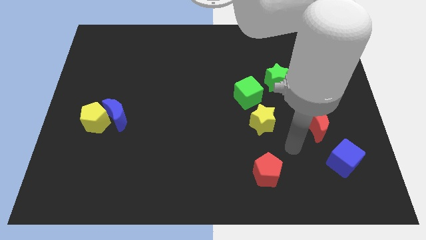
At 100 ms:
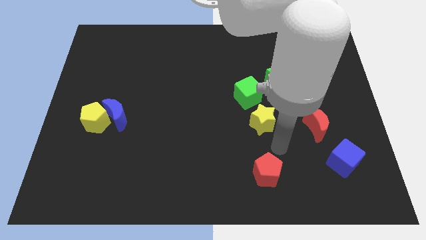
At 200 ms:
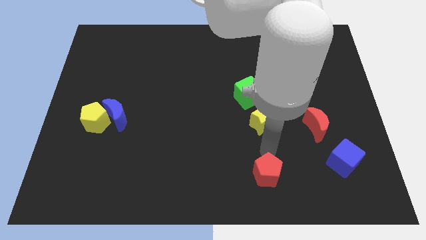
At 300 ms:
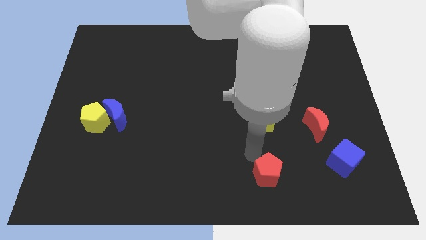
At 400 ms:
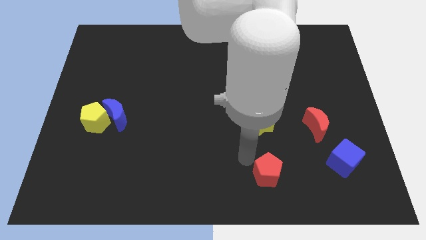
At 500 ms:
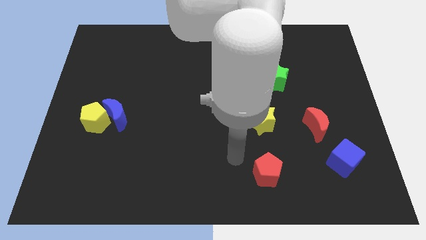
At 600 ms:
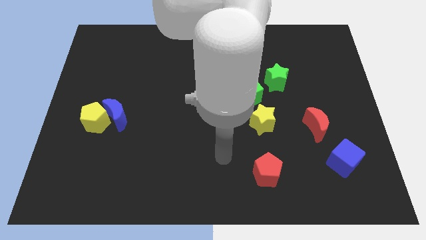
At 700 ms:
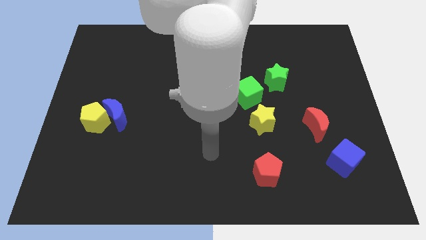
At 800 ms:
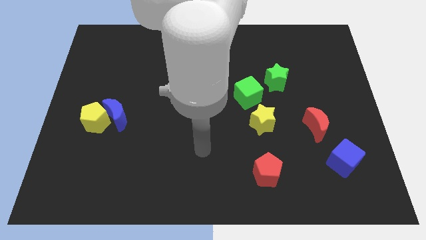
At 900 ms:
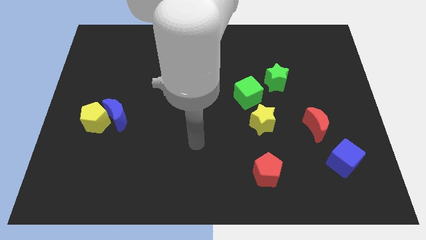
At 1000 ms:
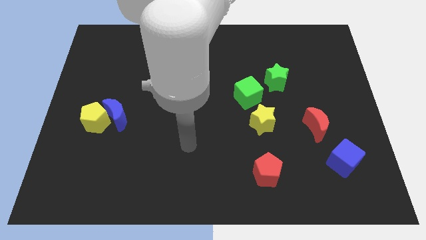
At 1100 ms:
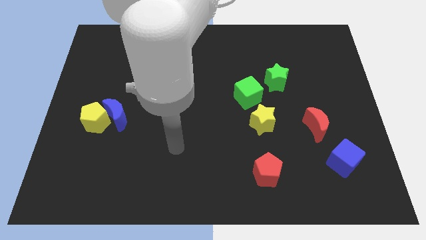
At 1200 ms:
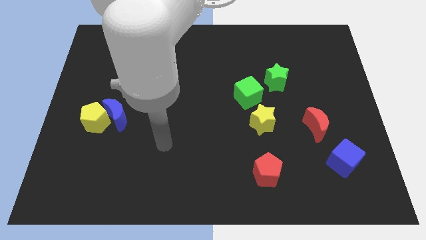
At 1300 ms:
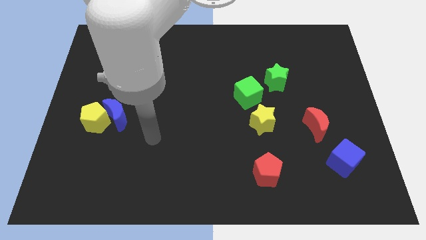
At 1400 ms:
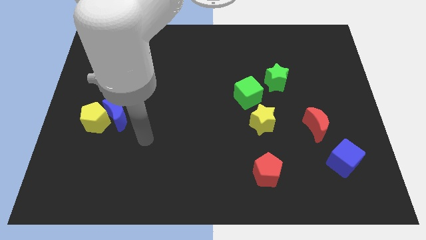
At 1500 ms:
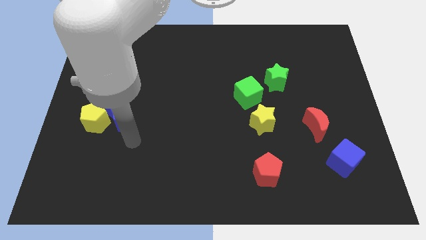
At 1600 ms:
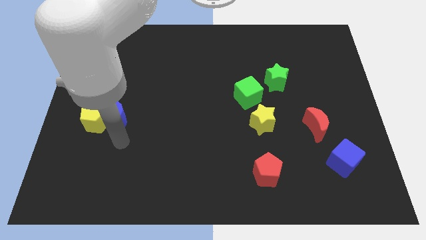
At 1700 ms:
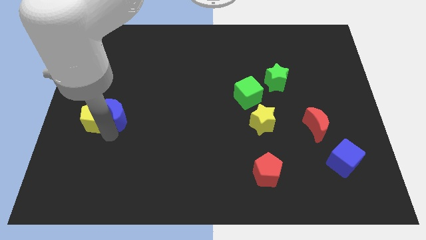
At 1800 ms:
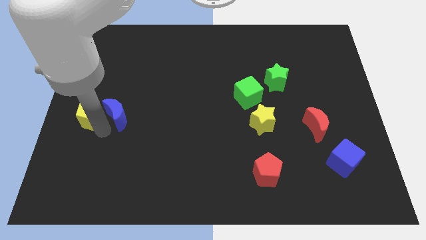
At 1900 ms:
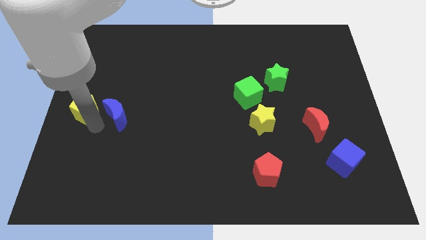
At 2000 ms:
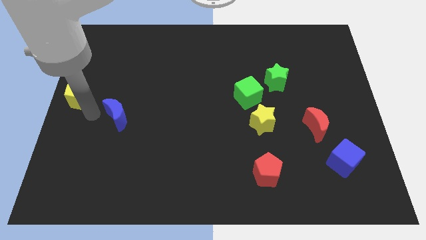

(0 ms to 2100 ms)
separate the blue moon from the yellow pentagon

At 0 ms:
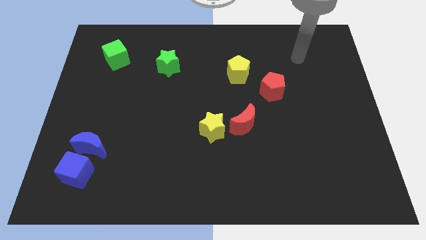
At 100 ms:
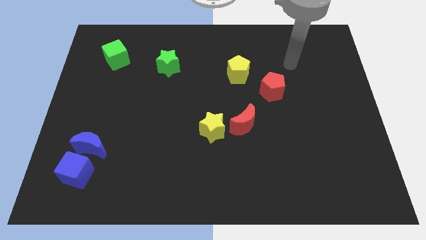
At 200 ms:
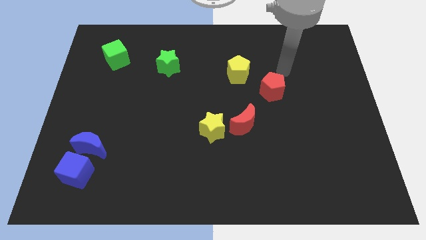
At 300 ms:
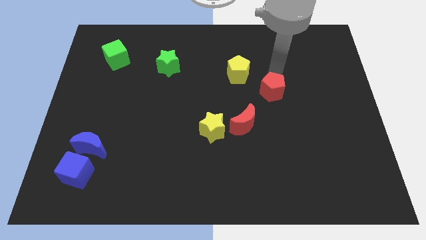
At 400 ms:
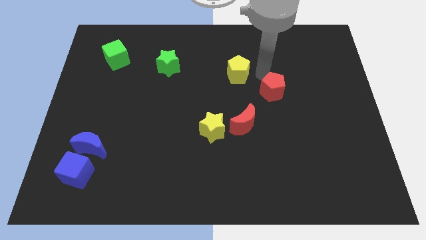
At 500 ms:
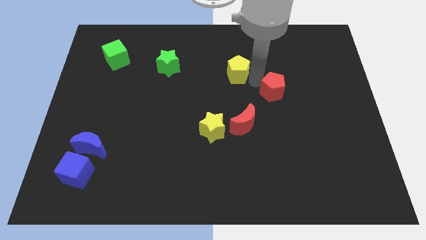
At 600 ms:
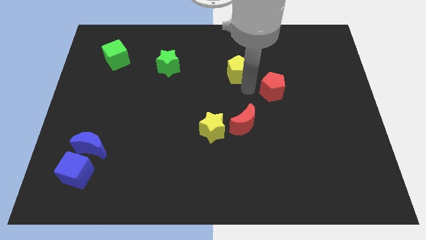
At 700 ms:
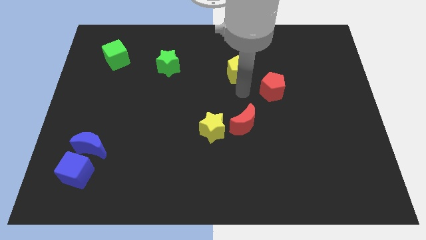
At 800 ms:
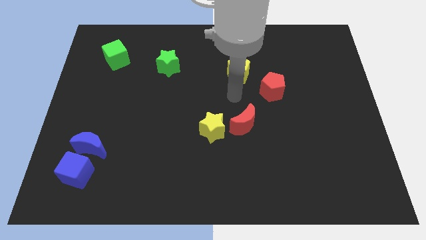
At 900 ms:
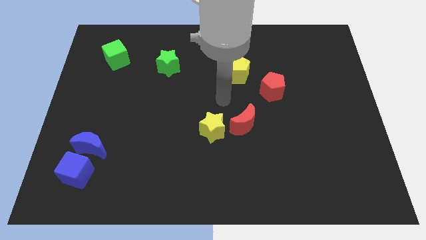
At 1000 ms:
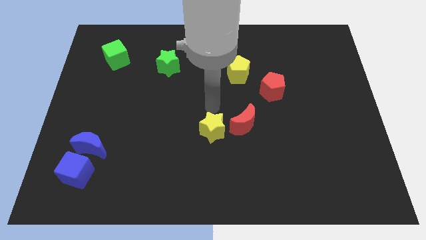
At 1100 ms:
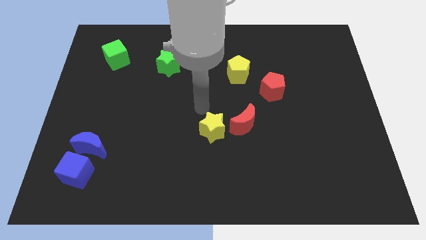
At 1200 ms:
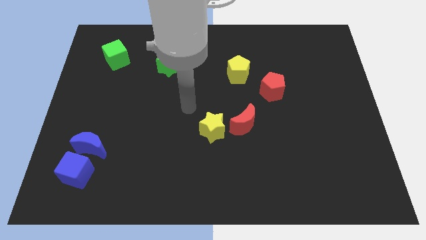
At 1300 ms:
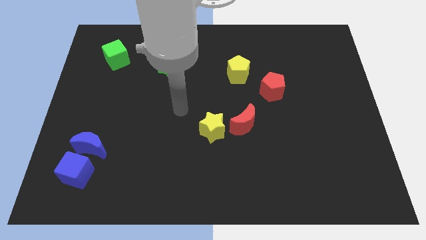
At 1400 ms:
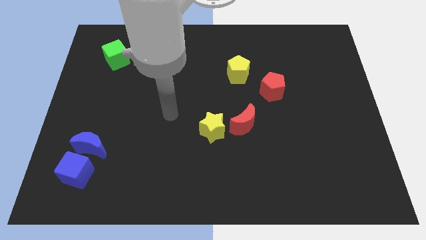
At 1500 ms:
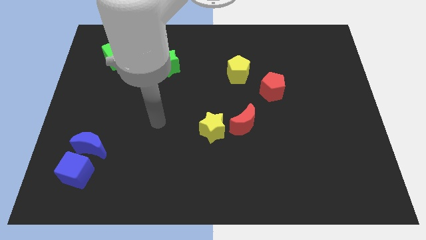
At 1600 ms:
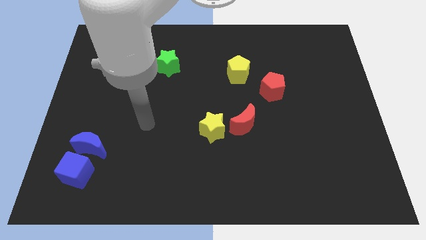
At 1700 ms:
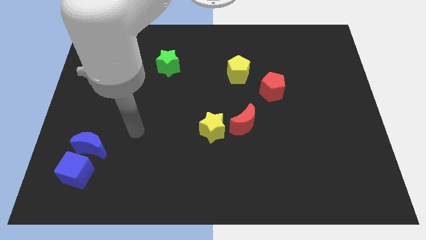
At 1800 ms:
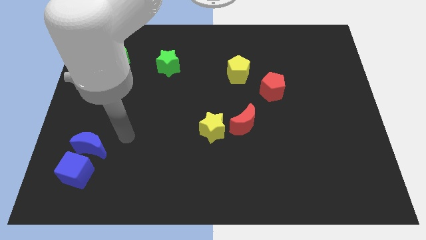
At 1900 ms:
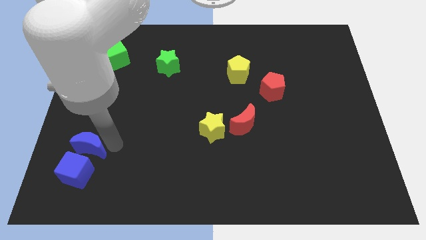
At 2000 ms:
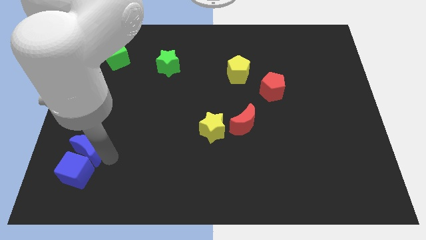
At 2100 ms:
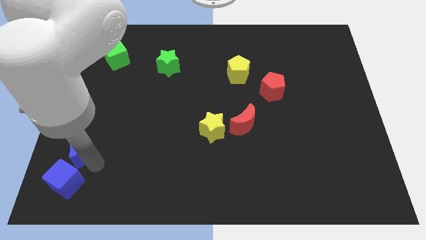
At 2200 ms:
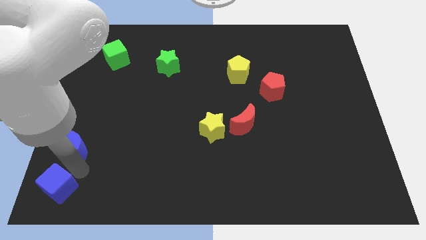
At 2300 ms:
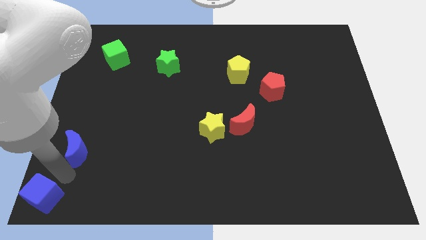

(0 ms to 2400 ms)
separate the blue moon from the blue cube

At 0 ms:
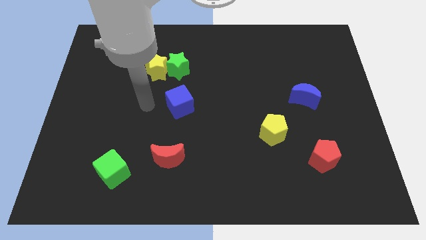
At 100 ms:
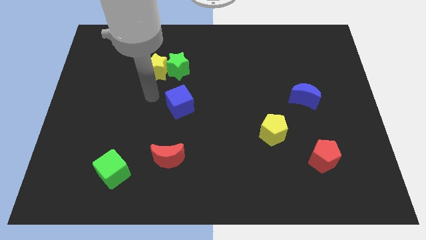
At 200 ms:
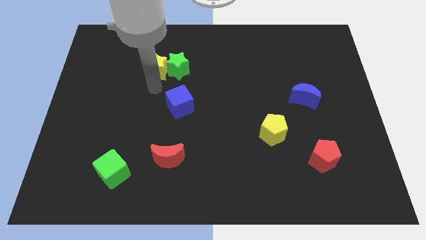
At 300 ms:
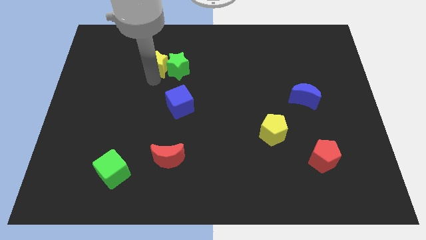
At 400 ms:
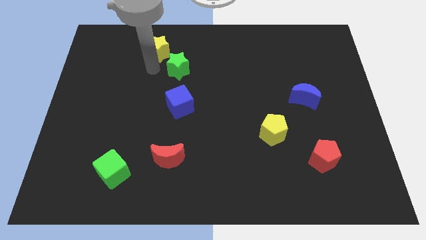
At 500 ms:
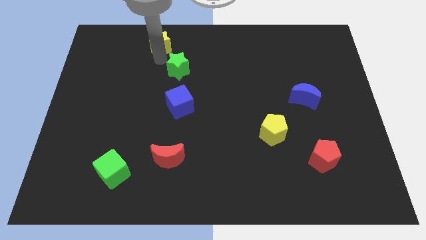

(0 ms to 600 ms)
move the green star away from the yellow star

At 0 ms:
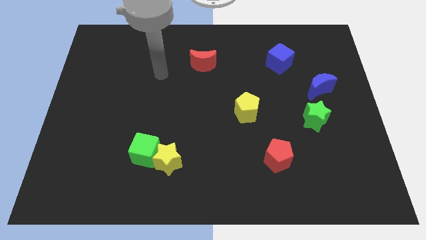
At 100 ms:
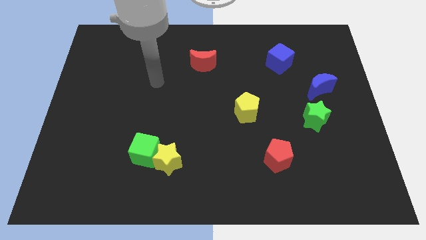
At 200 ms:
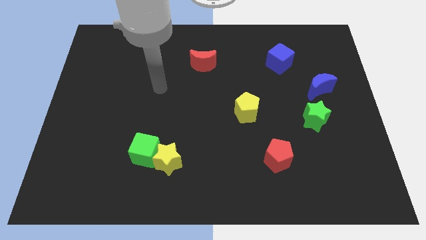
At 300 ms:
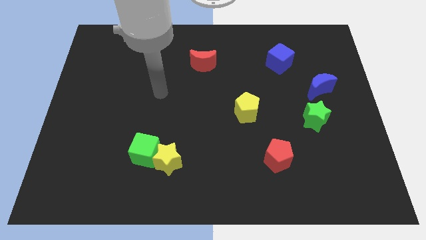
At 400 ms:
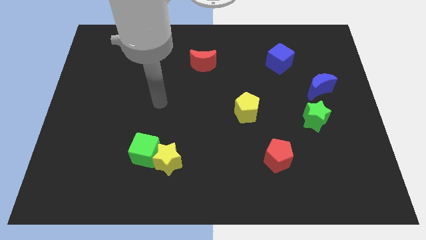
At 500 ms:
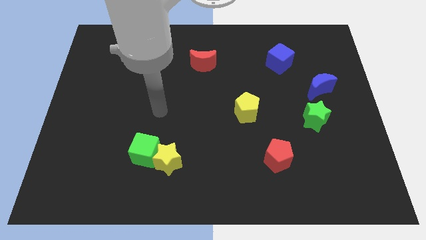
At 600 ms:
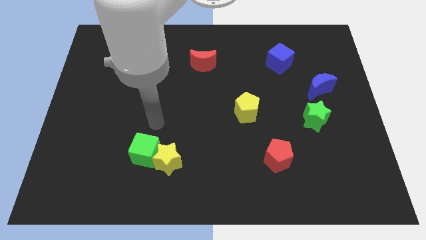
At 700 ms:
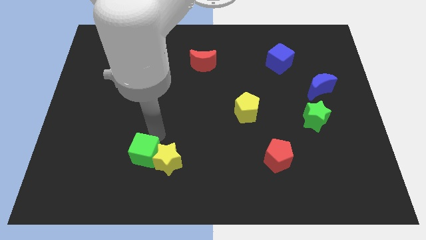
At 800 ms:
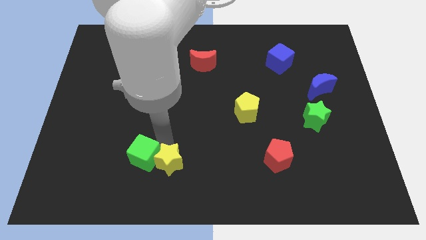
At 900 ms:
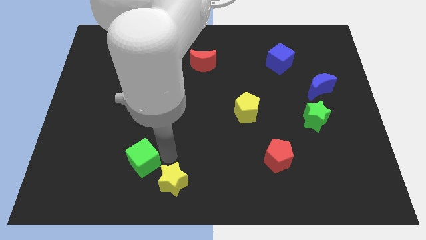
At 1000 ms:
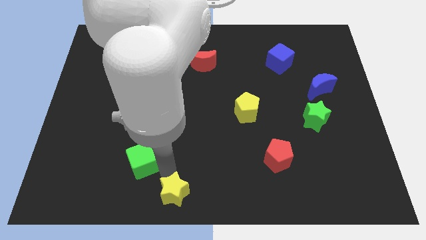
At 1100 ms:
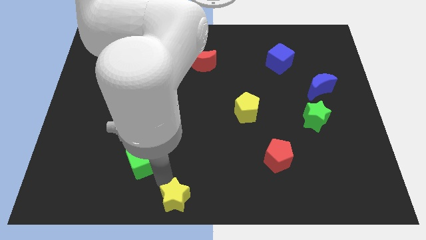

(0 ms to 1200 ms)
separate the green cube from the yellow star

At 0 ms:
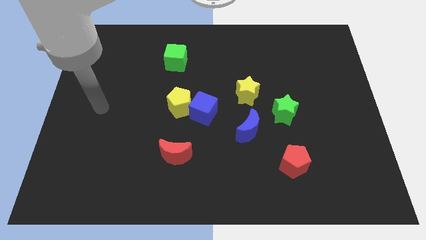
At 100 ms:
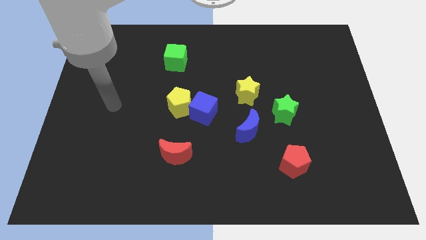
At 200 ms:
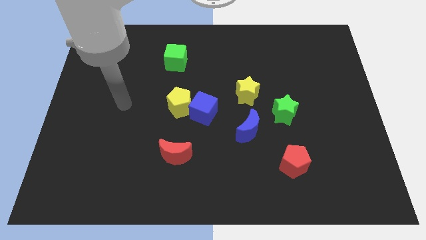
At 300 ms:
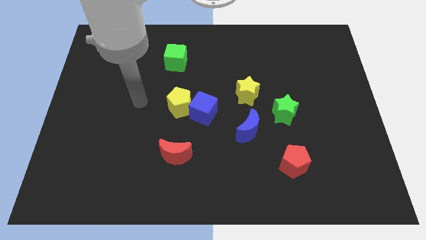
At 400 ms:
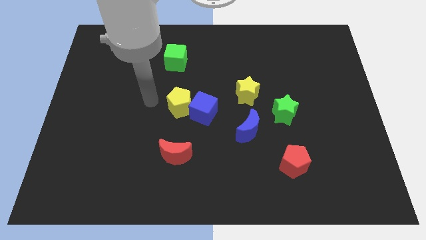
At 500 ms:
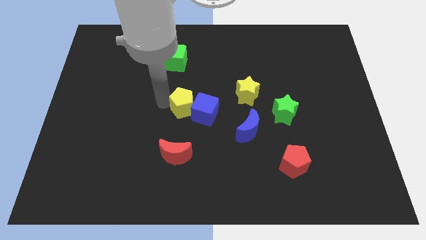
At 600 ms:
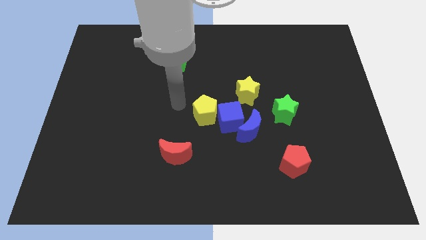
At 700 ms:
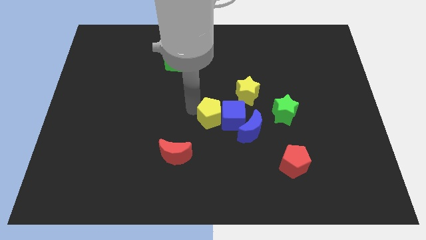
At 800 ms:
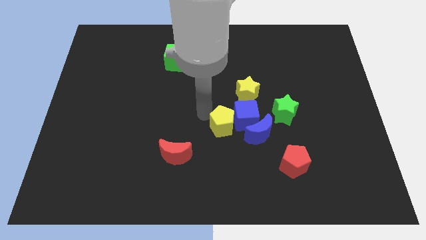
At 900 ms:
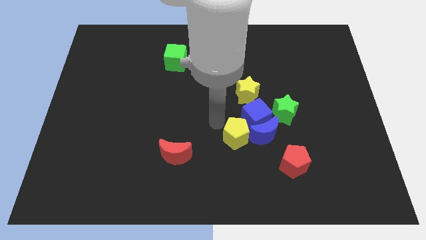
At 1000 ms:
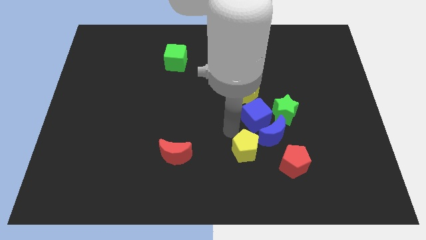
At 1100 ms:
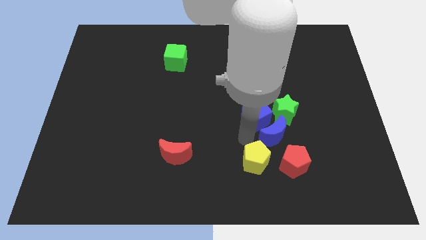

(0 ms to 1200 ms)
pull the blue cube apart from the yellow pentagon

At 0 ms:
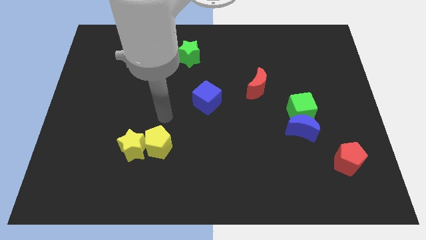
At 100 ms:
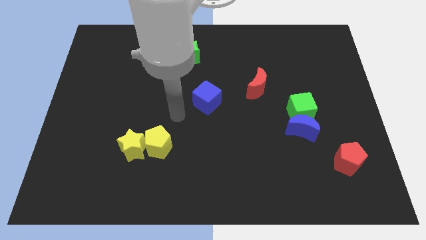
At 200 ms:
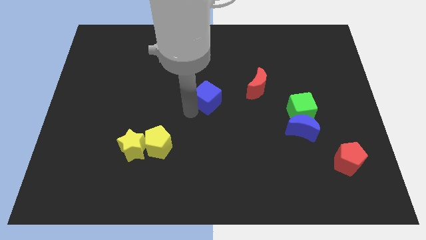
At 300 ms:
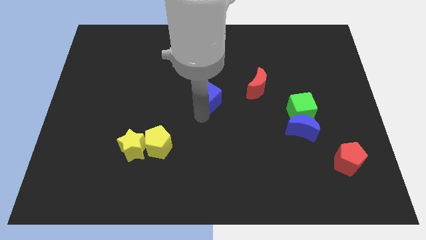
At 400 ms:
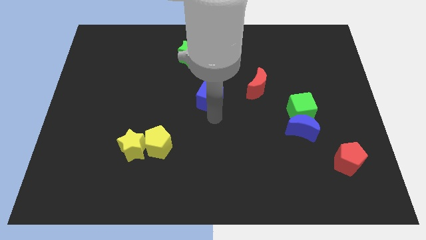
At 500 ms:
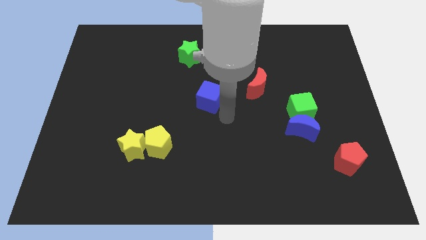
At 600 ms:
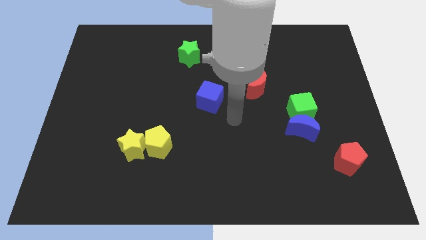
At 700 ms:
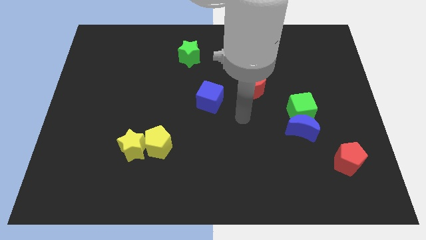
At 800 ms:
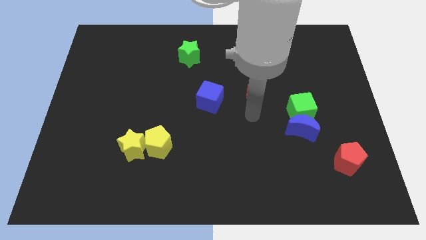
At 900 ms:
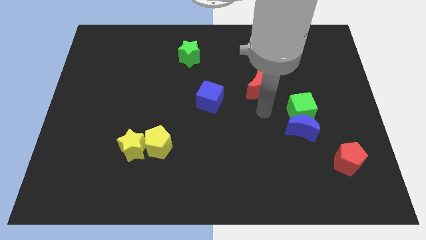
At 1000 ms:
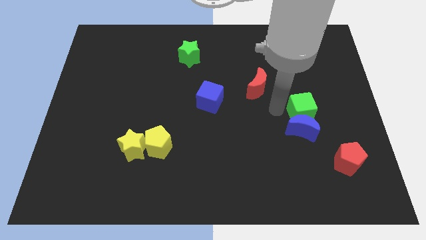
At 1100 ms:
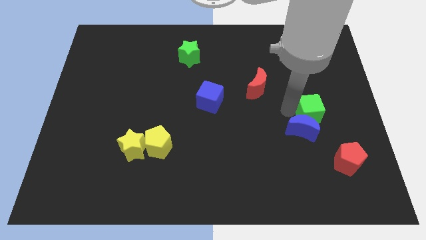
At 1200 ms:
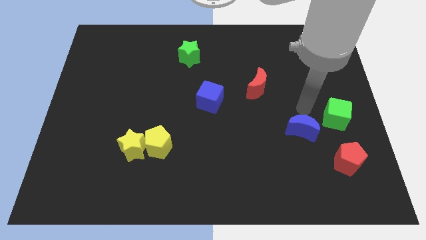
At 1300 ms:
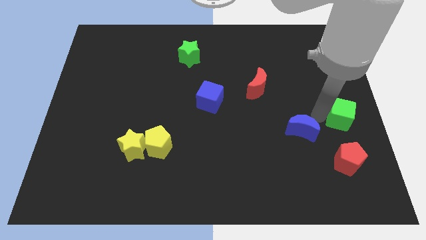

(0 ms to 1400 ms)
pull the blue moon apart from the green cube

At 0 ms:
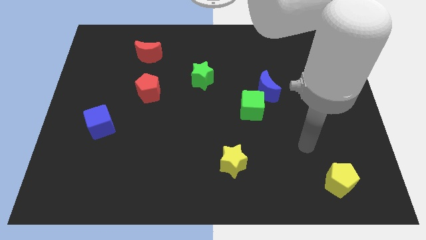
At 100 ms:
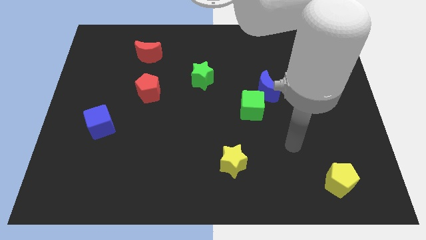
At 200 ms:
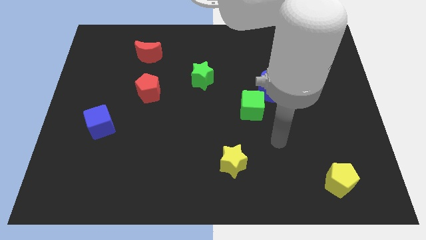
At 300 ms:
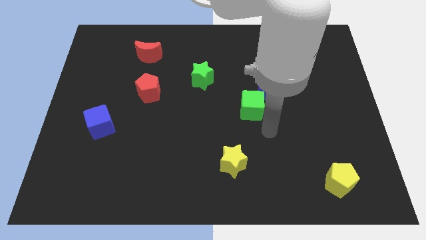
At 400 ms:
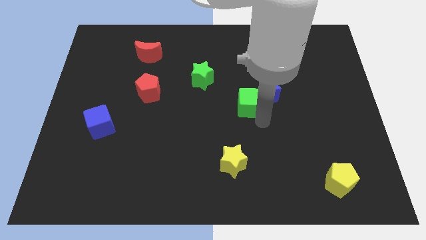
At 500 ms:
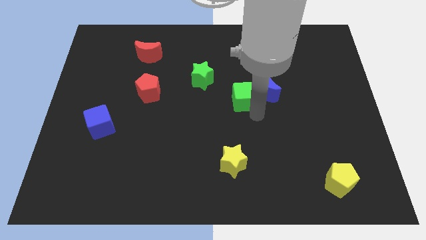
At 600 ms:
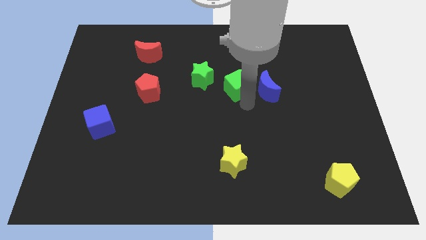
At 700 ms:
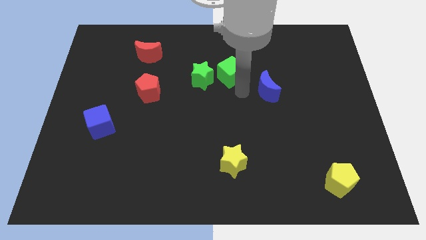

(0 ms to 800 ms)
separate the blue moon from the green cube
